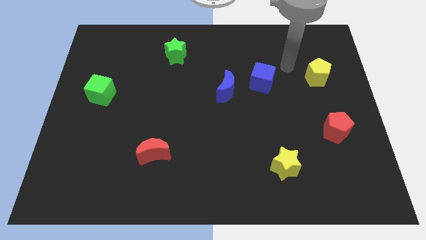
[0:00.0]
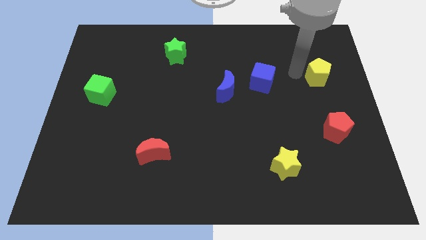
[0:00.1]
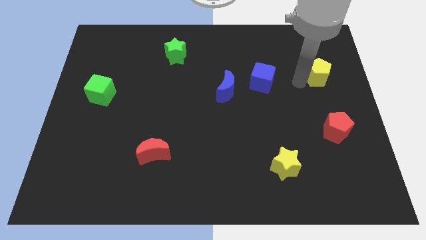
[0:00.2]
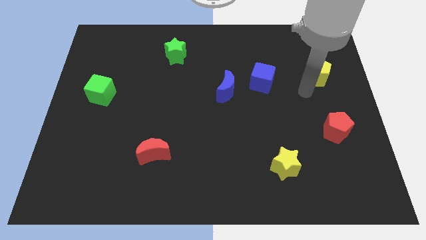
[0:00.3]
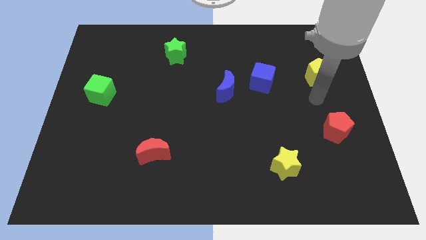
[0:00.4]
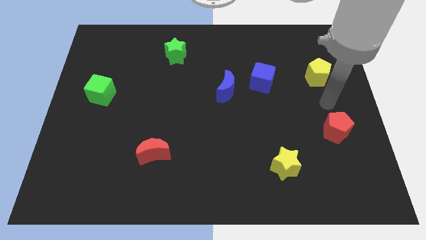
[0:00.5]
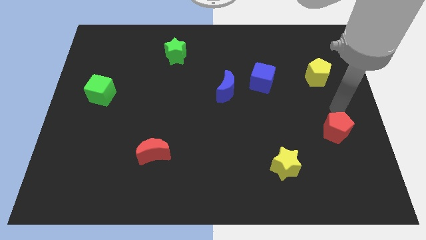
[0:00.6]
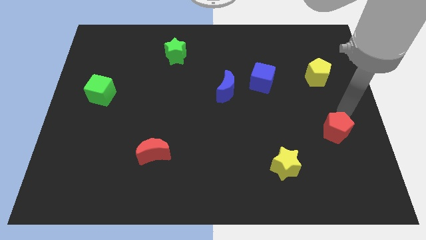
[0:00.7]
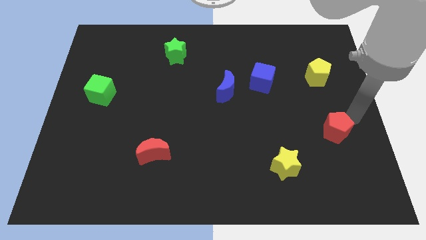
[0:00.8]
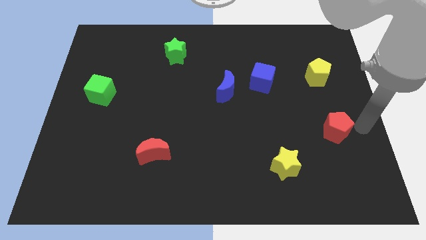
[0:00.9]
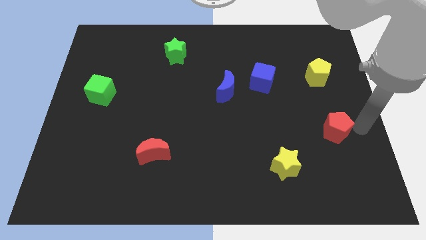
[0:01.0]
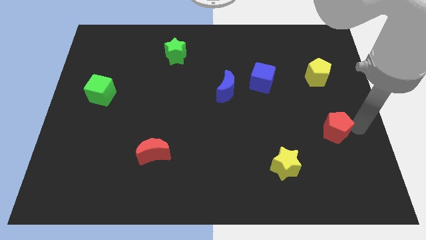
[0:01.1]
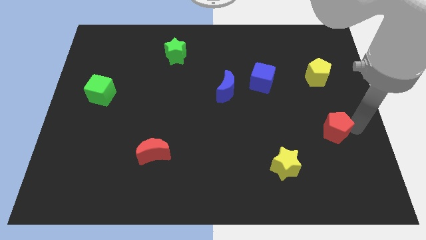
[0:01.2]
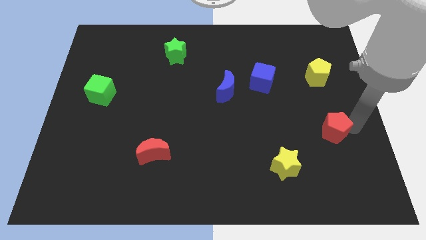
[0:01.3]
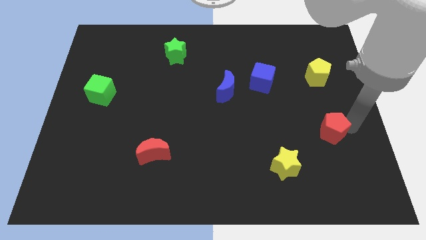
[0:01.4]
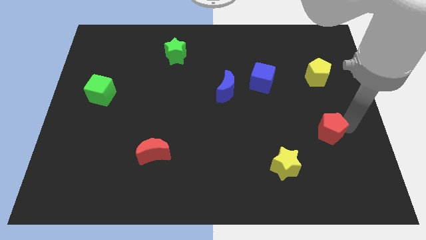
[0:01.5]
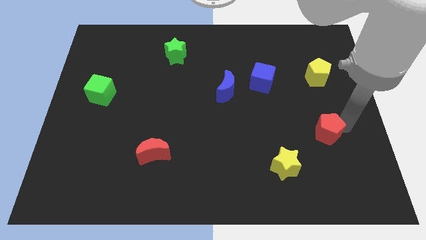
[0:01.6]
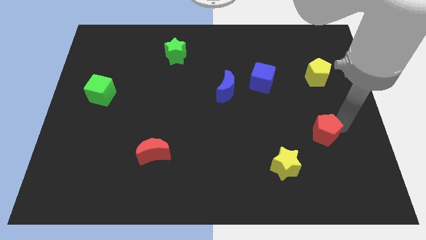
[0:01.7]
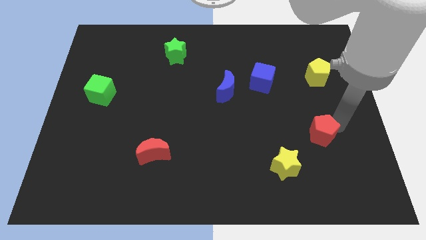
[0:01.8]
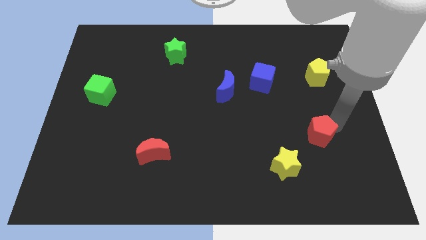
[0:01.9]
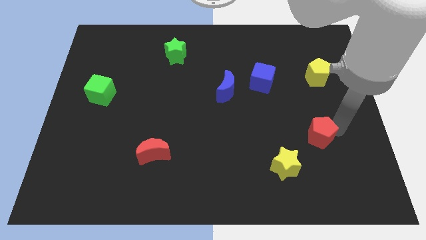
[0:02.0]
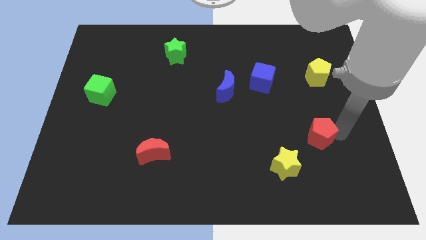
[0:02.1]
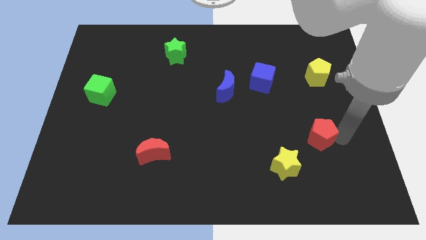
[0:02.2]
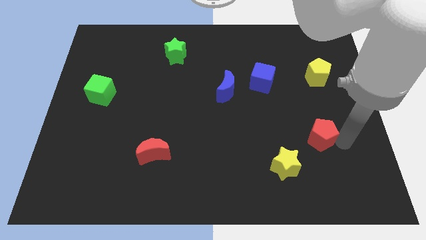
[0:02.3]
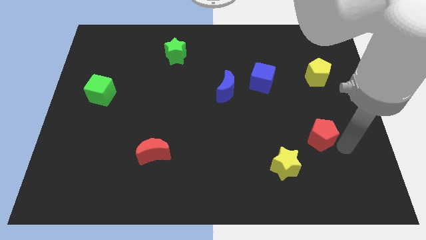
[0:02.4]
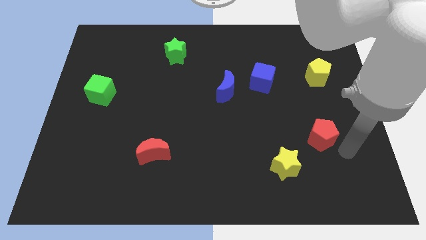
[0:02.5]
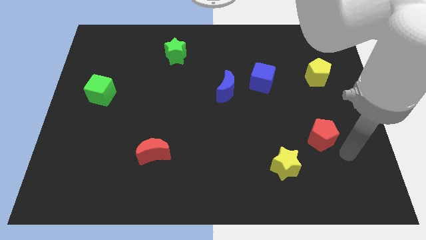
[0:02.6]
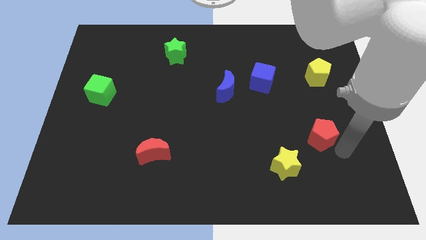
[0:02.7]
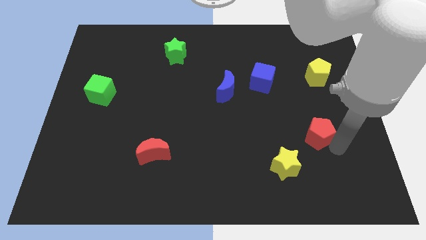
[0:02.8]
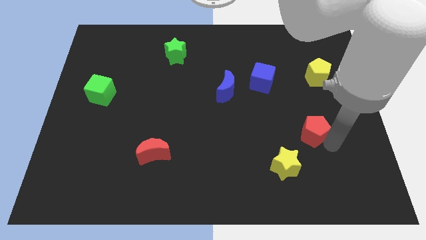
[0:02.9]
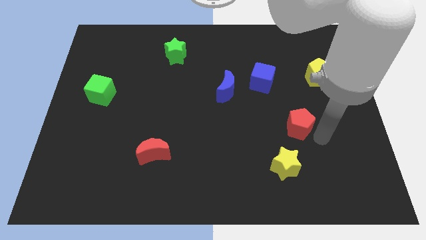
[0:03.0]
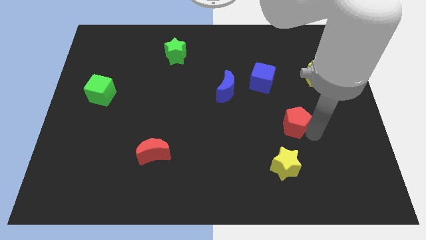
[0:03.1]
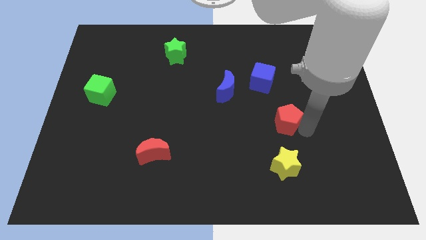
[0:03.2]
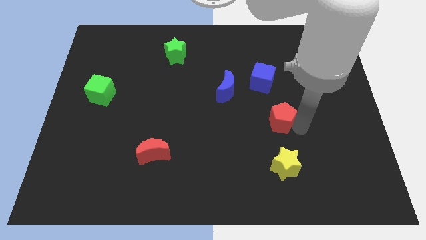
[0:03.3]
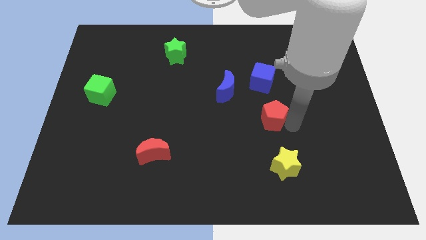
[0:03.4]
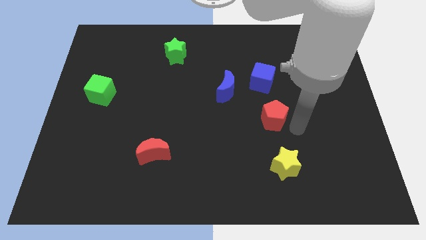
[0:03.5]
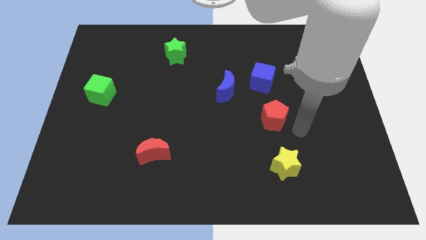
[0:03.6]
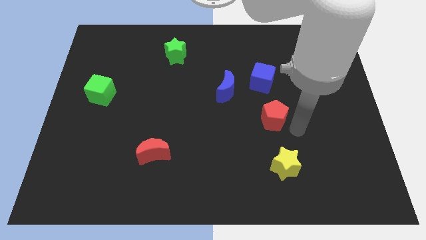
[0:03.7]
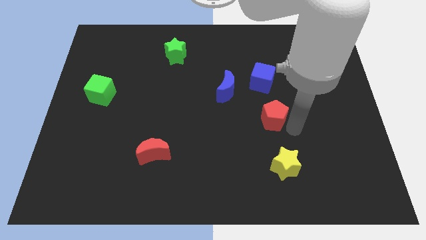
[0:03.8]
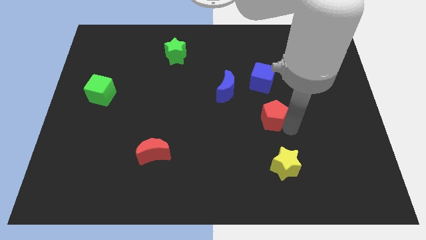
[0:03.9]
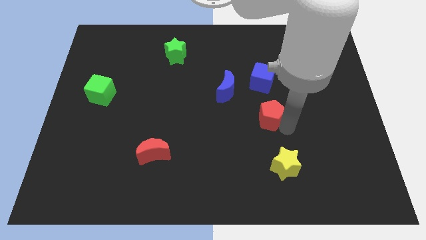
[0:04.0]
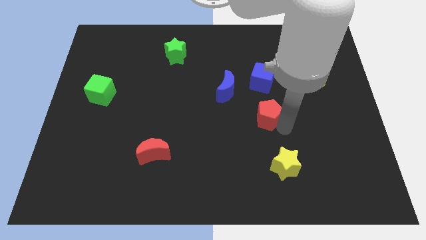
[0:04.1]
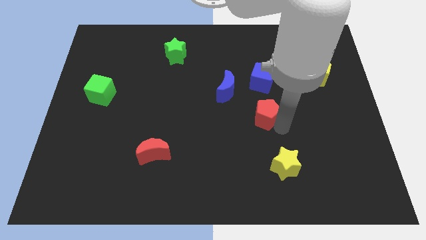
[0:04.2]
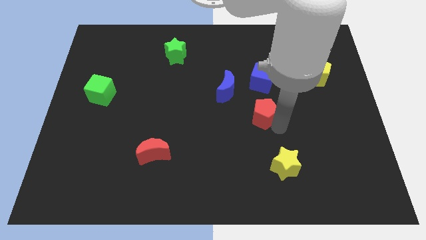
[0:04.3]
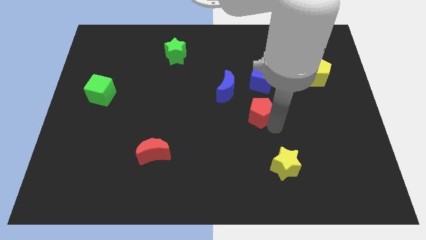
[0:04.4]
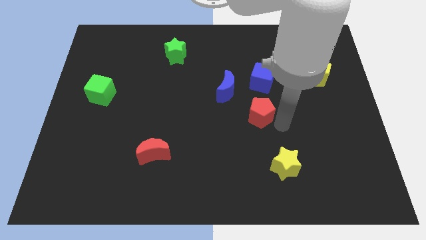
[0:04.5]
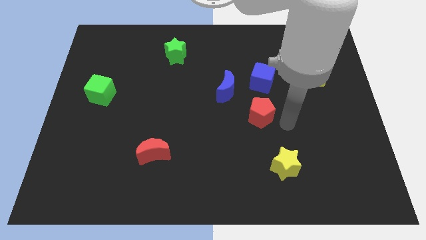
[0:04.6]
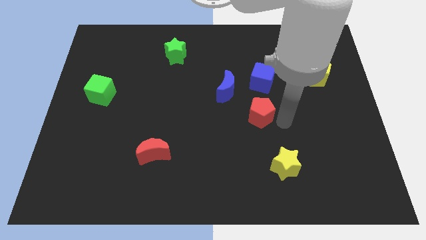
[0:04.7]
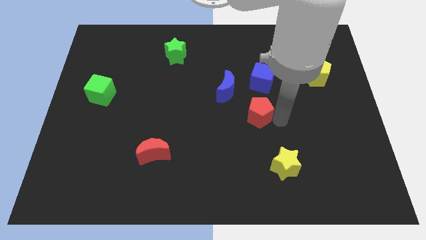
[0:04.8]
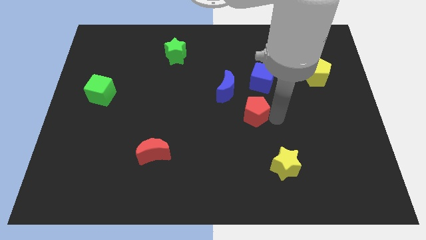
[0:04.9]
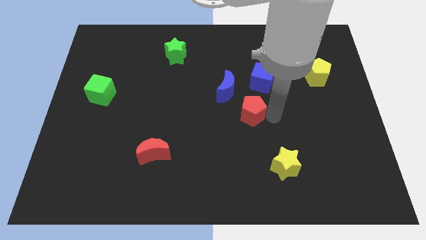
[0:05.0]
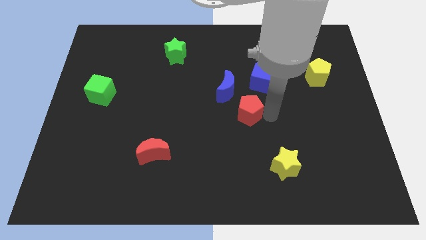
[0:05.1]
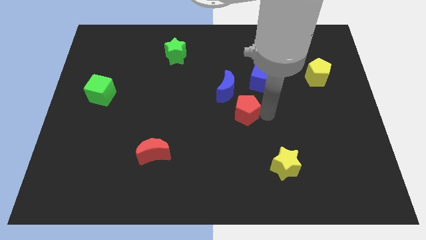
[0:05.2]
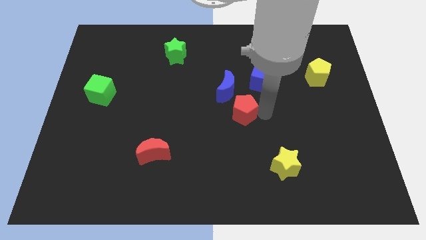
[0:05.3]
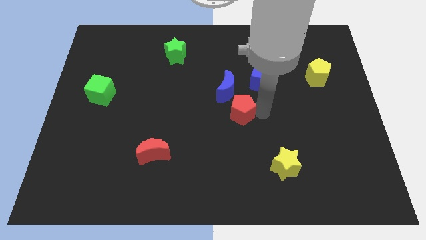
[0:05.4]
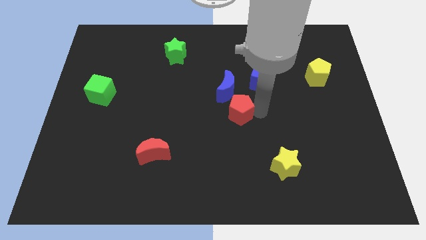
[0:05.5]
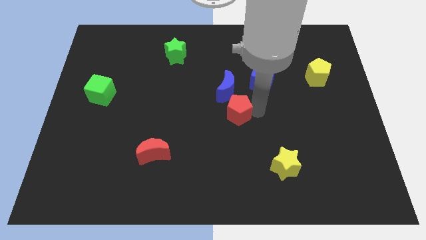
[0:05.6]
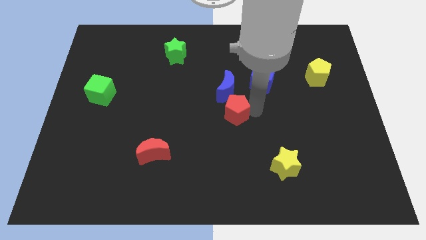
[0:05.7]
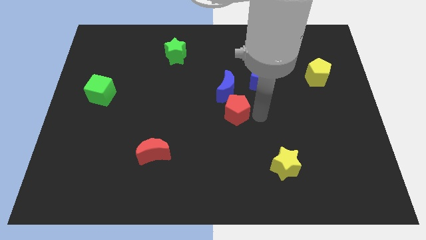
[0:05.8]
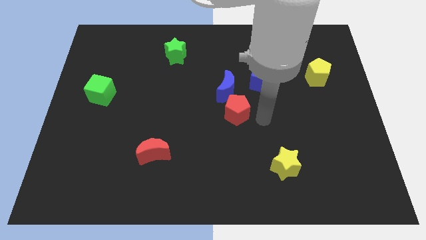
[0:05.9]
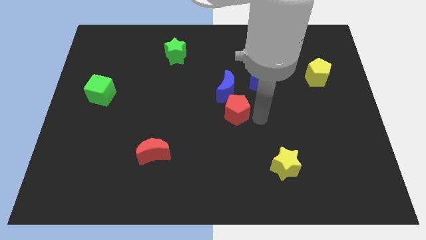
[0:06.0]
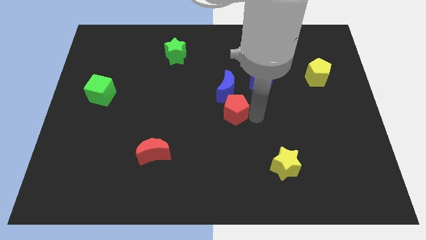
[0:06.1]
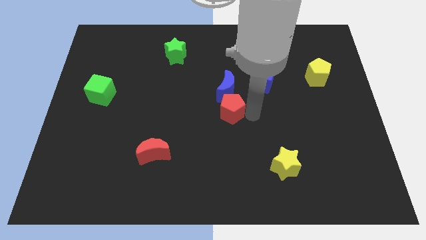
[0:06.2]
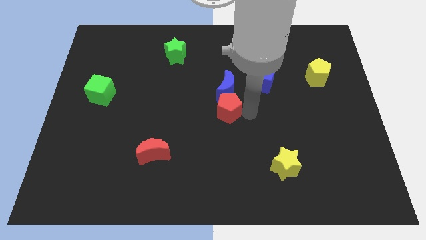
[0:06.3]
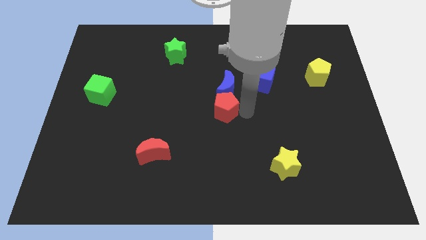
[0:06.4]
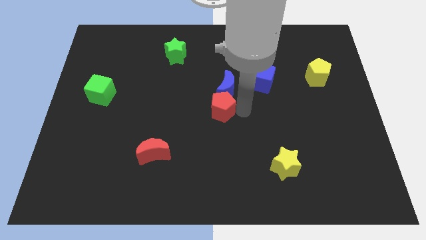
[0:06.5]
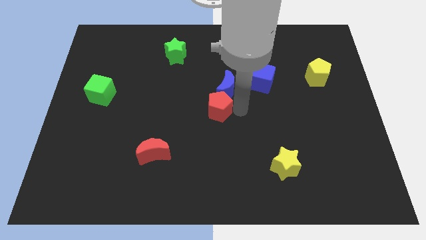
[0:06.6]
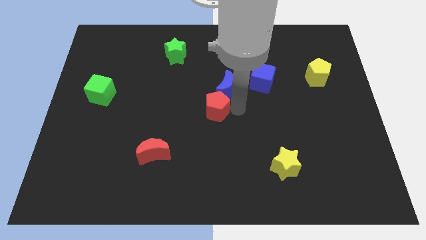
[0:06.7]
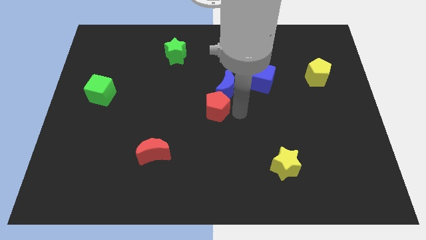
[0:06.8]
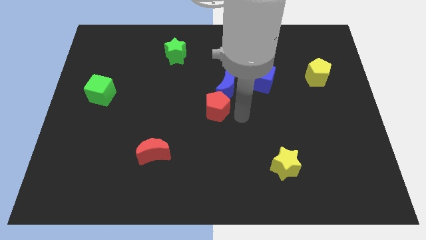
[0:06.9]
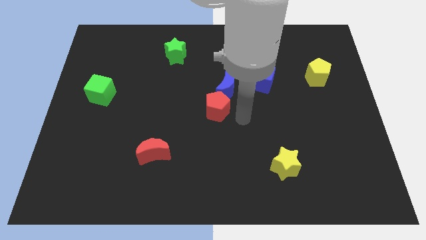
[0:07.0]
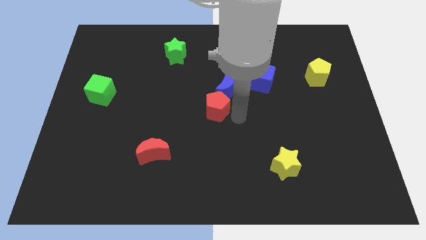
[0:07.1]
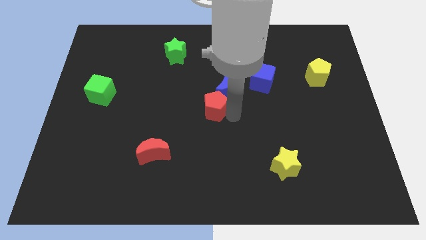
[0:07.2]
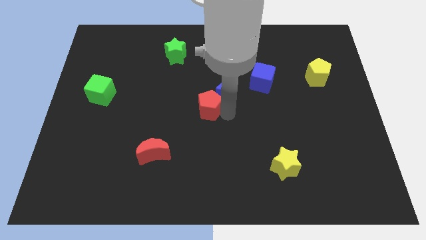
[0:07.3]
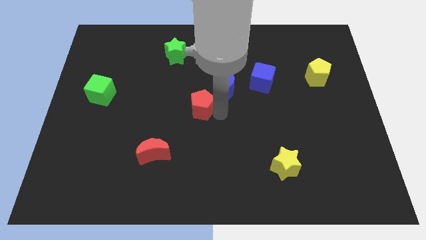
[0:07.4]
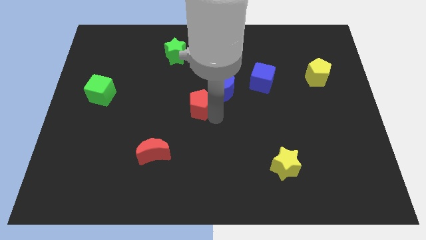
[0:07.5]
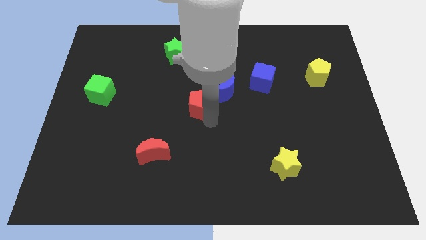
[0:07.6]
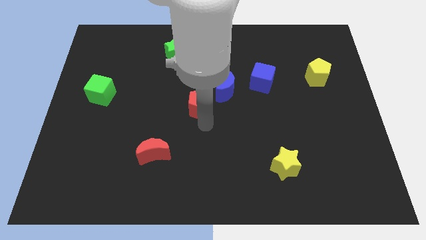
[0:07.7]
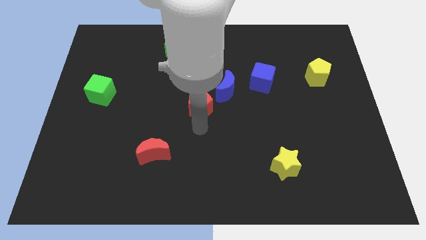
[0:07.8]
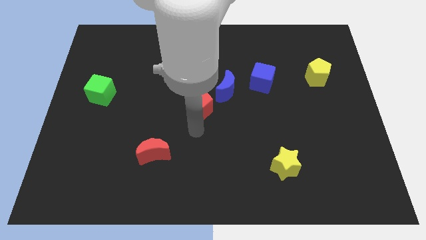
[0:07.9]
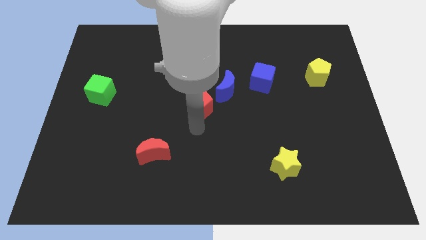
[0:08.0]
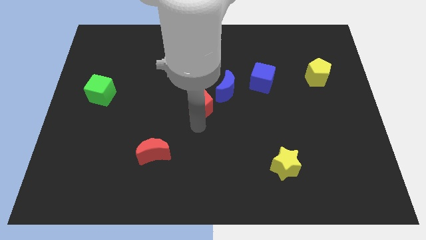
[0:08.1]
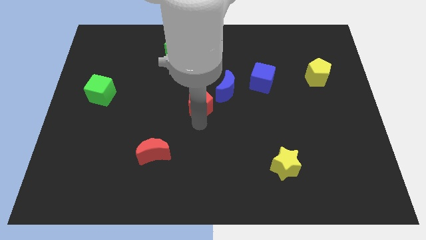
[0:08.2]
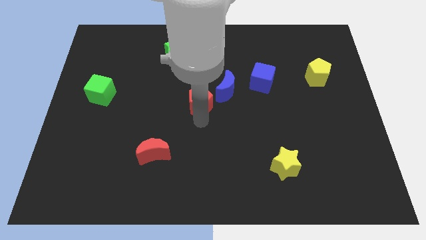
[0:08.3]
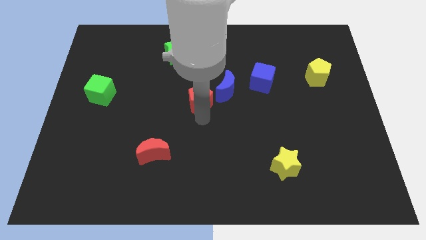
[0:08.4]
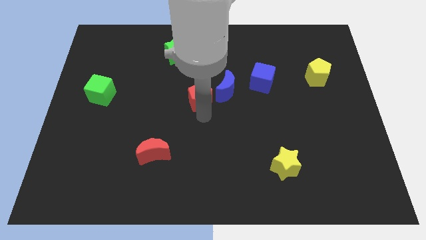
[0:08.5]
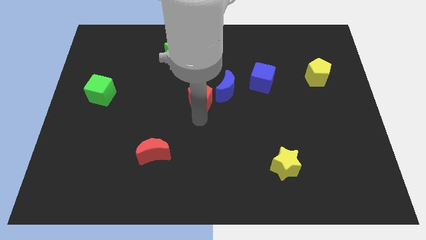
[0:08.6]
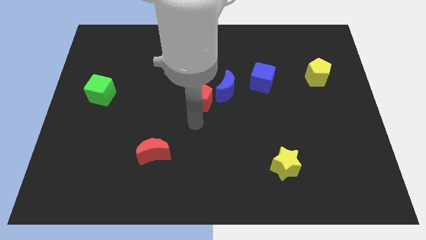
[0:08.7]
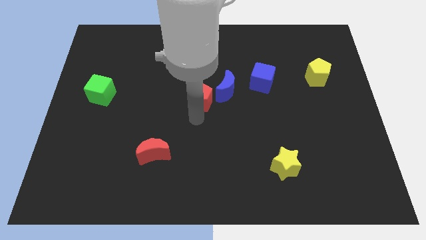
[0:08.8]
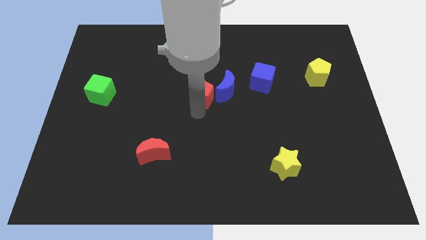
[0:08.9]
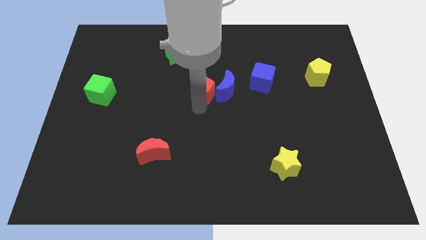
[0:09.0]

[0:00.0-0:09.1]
move the red pentagon diagonally up and to the left of the blue moon
